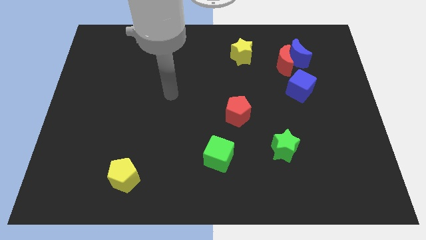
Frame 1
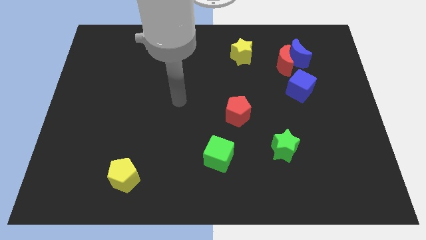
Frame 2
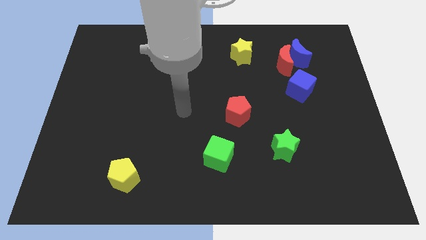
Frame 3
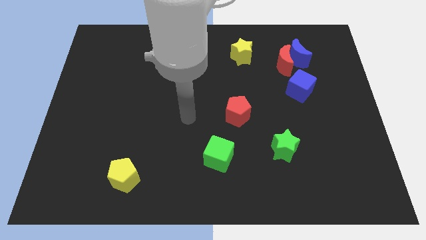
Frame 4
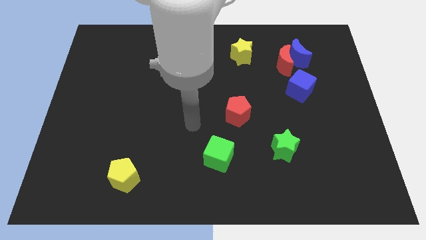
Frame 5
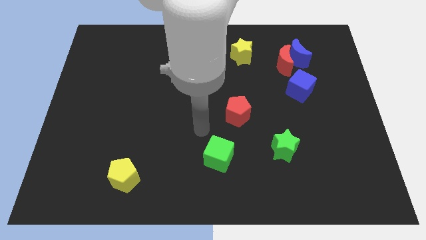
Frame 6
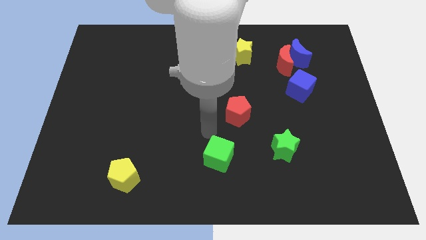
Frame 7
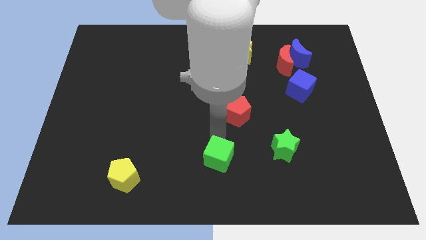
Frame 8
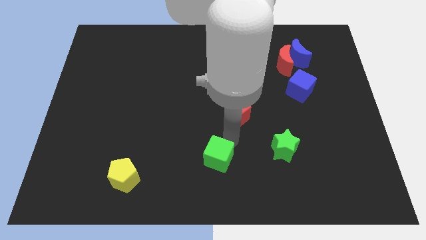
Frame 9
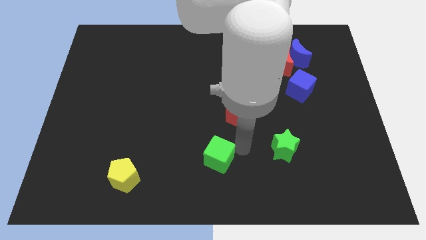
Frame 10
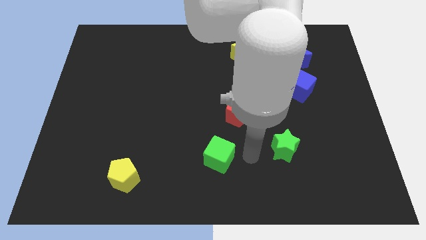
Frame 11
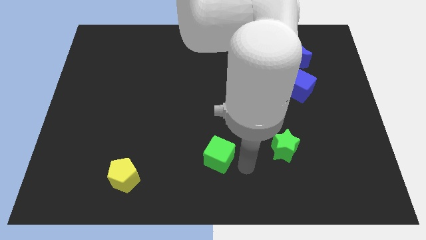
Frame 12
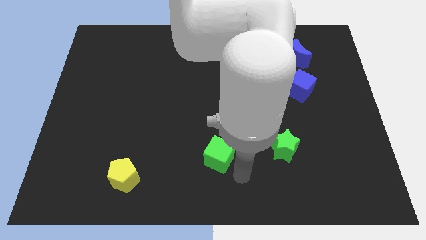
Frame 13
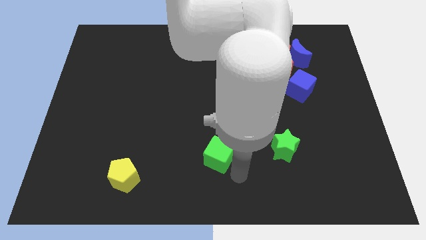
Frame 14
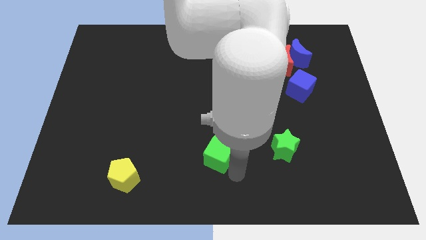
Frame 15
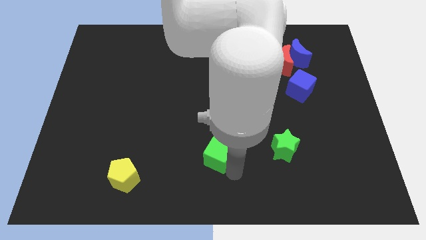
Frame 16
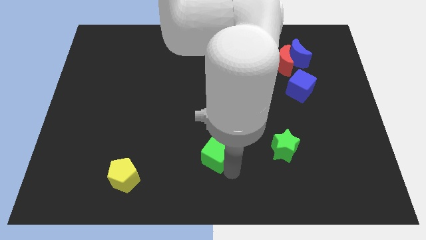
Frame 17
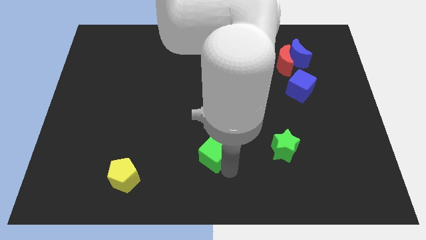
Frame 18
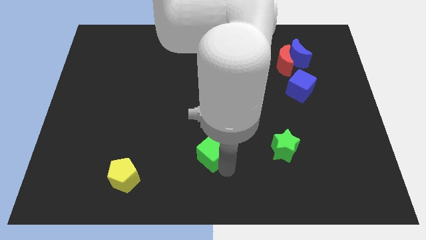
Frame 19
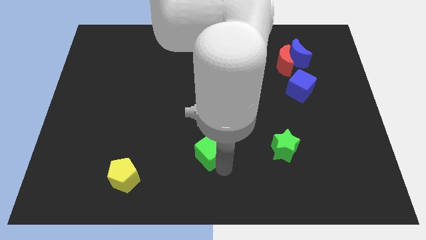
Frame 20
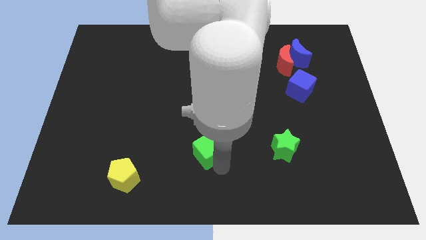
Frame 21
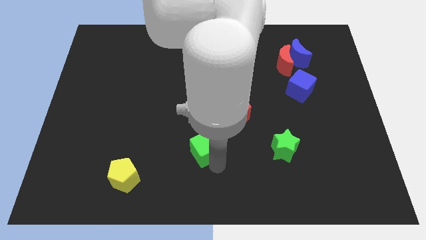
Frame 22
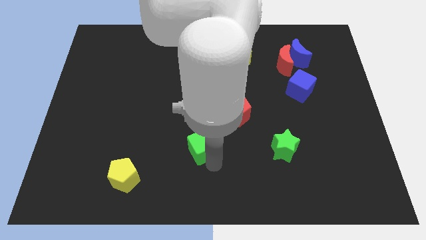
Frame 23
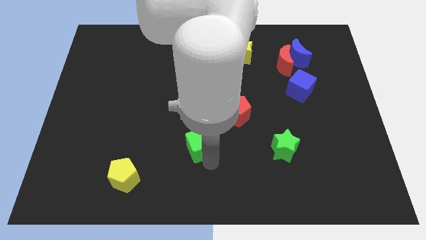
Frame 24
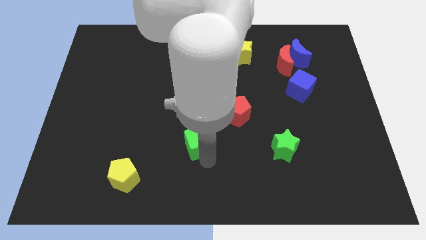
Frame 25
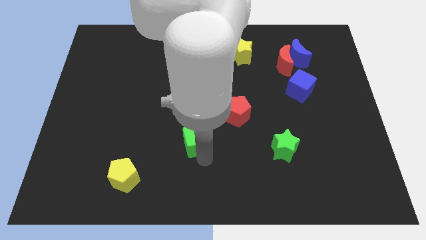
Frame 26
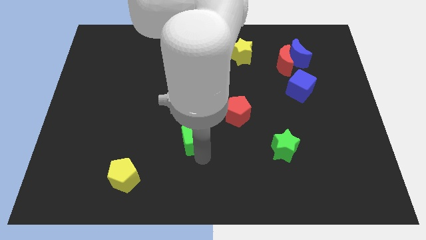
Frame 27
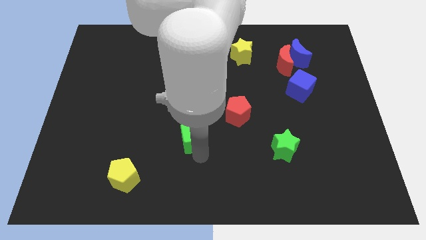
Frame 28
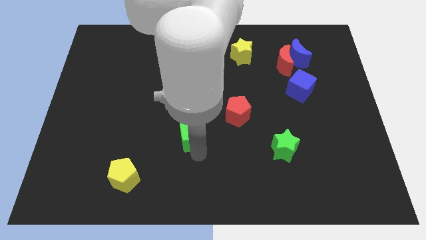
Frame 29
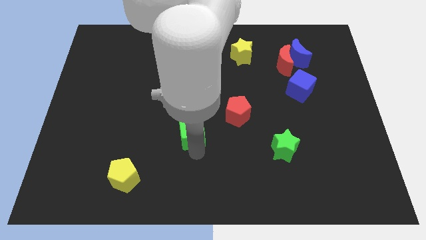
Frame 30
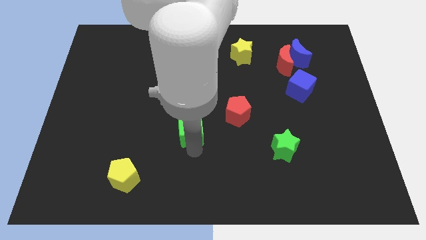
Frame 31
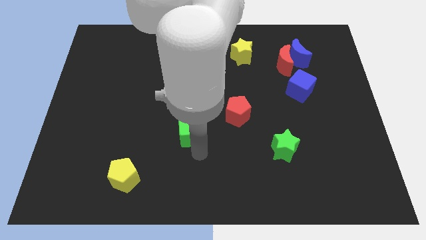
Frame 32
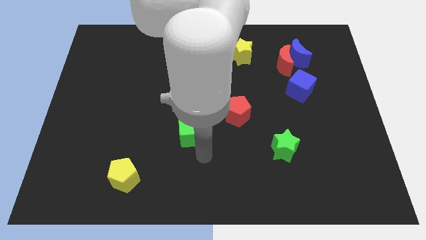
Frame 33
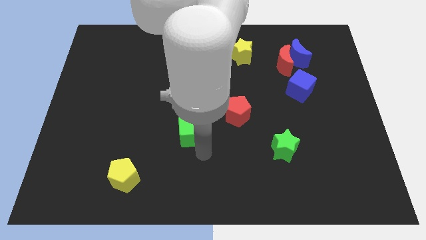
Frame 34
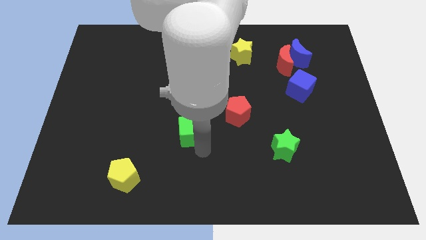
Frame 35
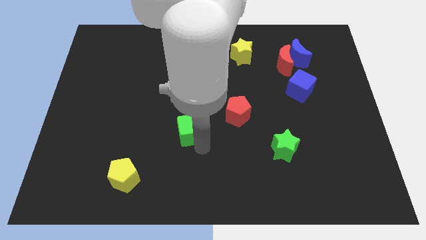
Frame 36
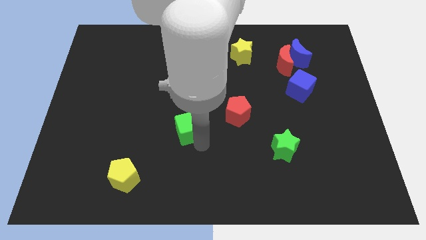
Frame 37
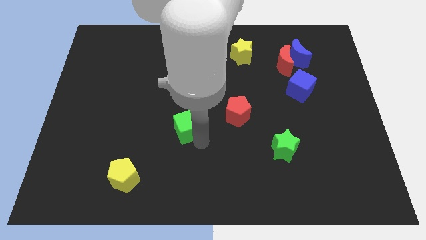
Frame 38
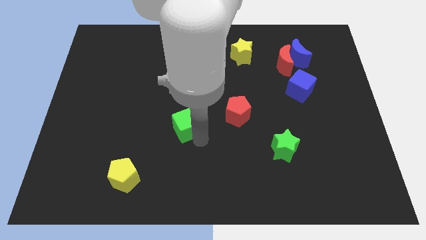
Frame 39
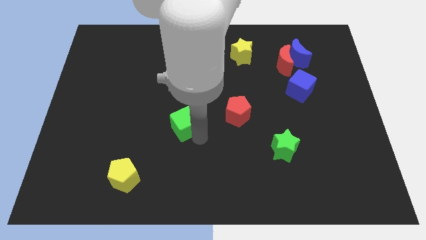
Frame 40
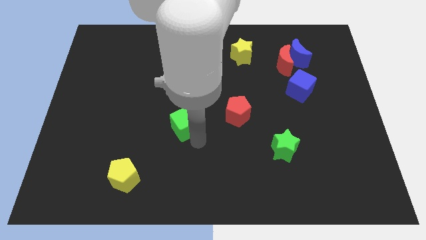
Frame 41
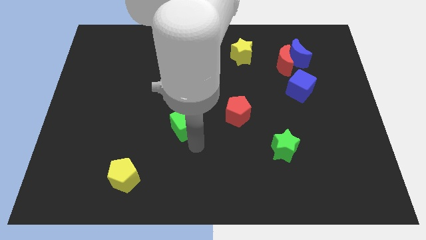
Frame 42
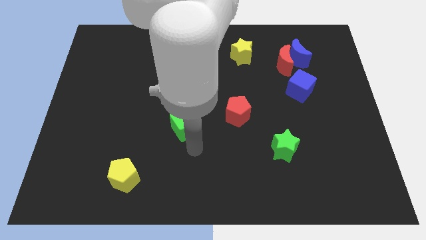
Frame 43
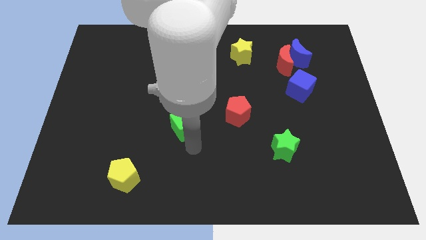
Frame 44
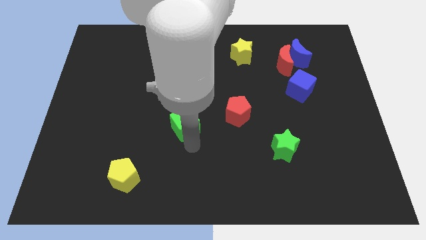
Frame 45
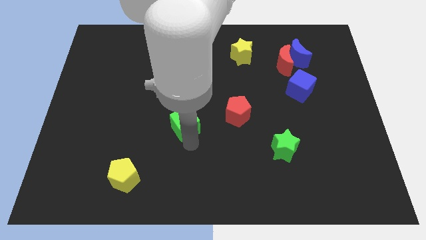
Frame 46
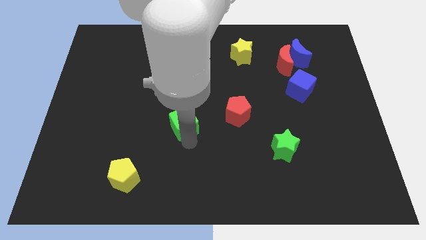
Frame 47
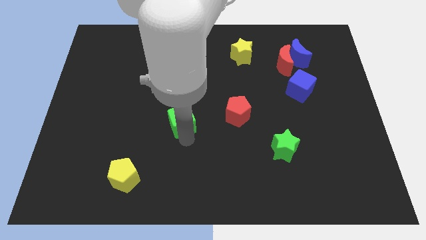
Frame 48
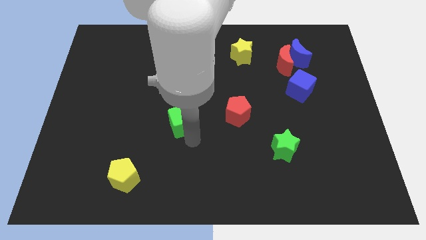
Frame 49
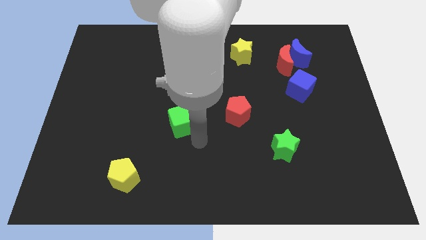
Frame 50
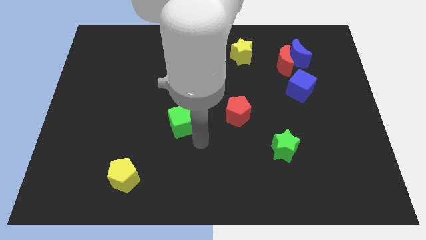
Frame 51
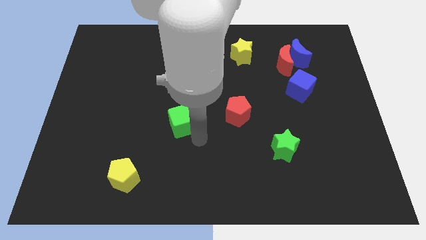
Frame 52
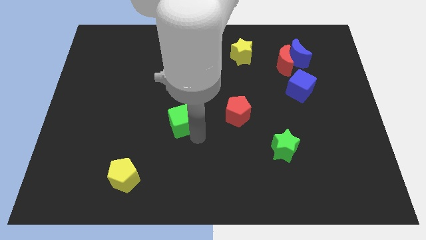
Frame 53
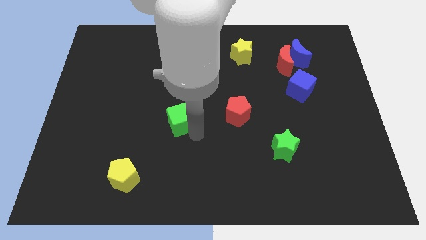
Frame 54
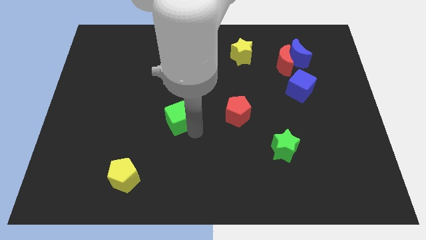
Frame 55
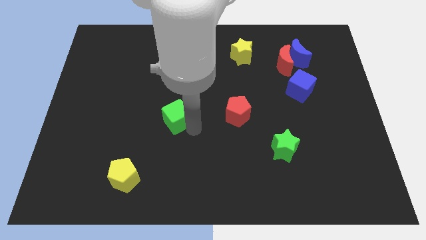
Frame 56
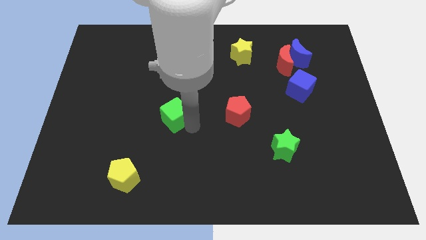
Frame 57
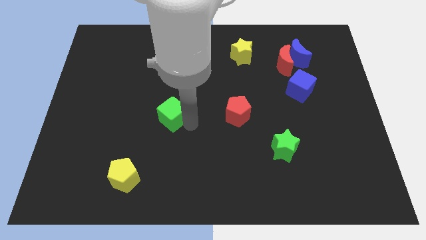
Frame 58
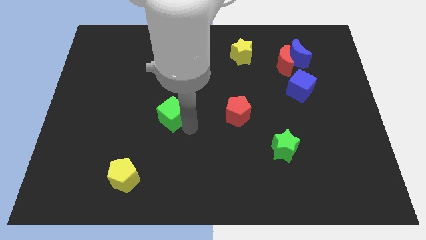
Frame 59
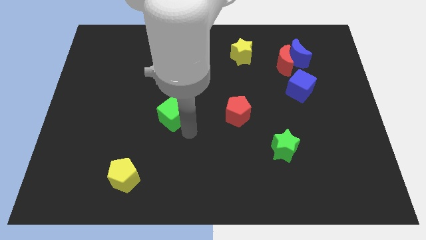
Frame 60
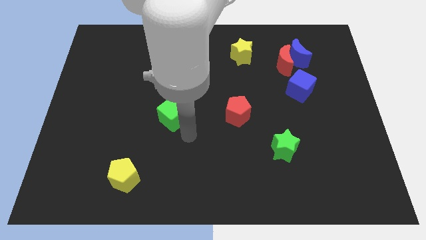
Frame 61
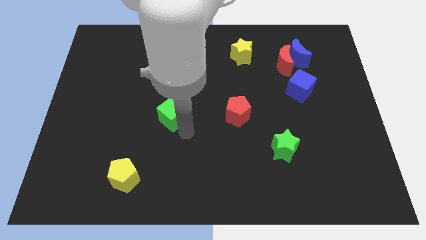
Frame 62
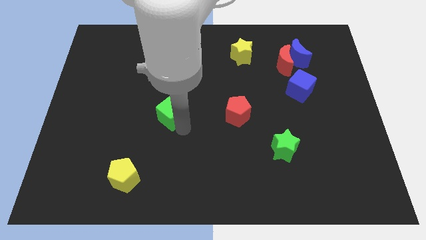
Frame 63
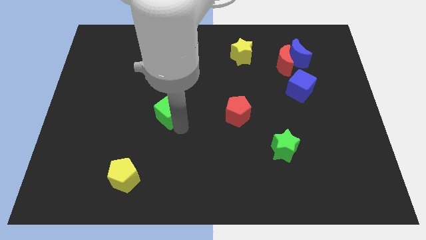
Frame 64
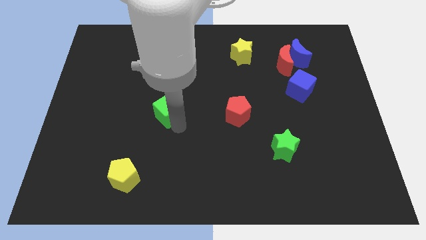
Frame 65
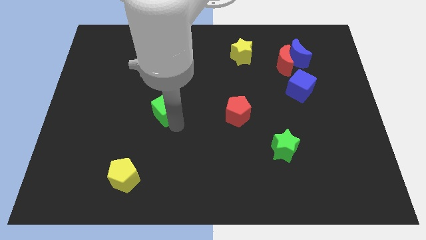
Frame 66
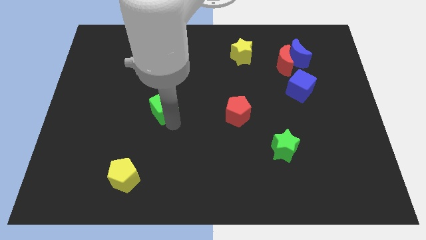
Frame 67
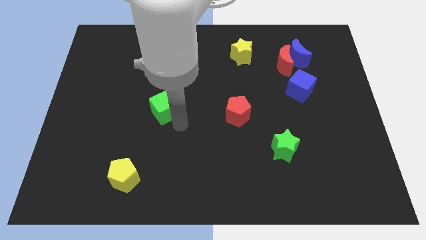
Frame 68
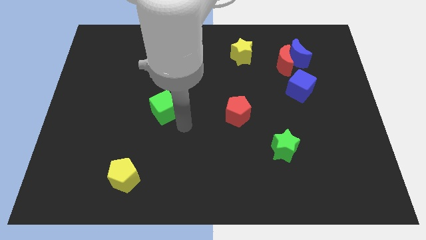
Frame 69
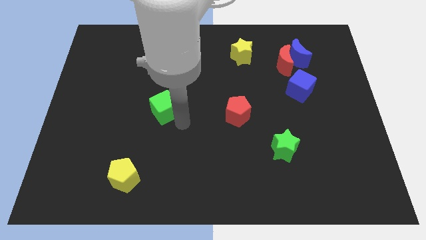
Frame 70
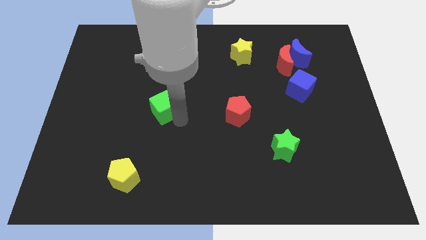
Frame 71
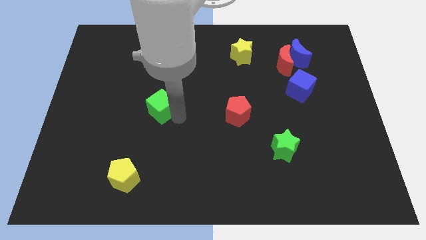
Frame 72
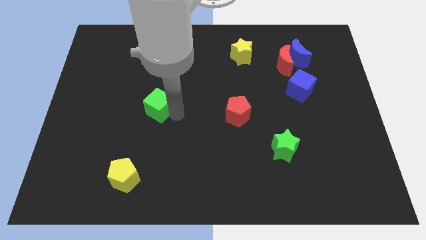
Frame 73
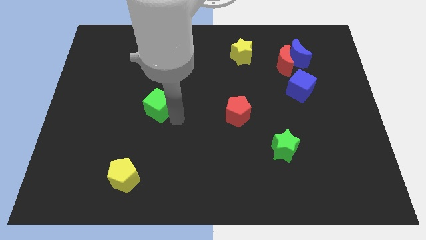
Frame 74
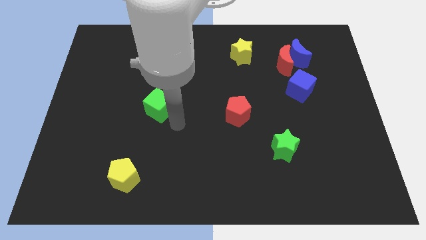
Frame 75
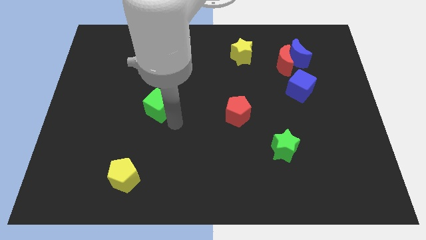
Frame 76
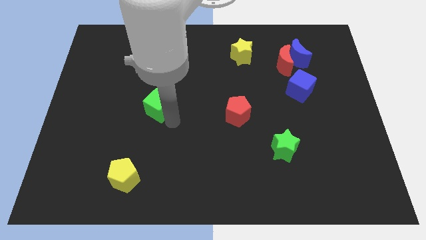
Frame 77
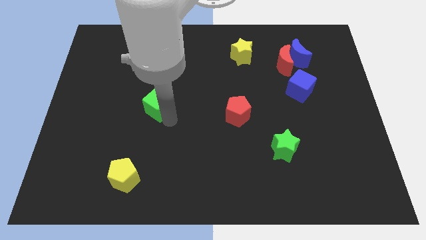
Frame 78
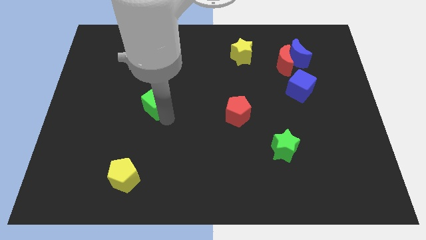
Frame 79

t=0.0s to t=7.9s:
slide the green cube up and to the left diagonally
